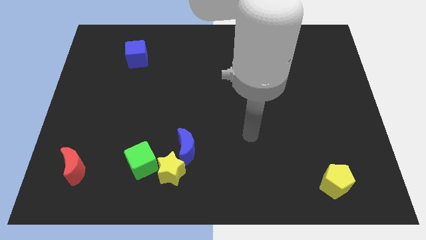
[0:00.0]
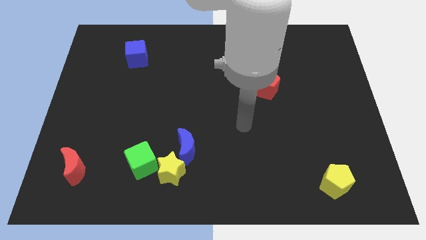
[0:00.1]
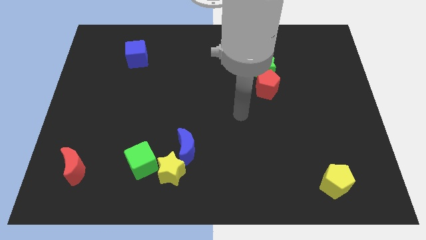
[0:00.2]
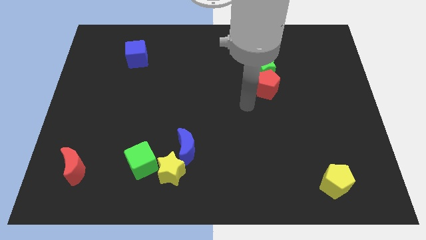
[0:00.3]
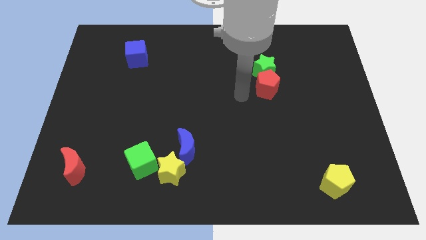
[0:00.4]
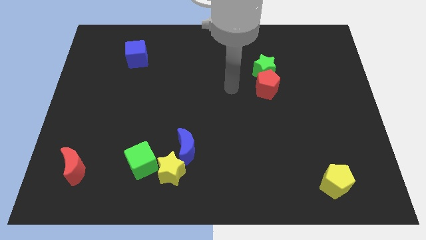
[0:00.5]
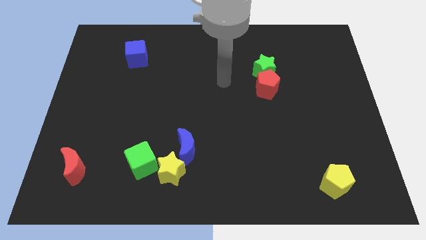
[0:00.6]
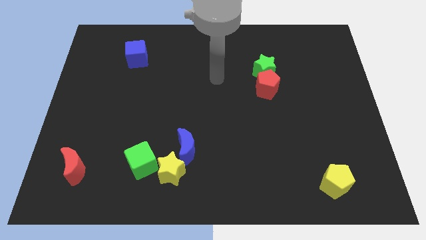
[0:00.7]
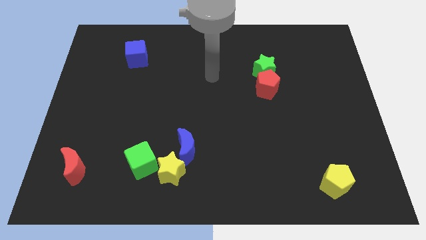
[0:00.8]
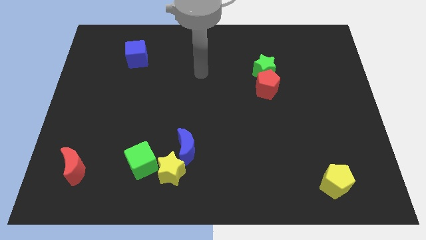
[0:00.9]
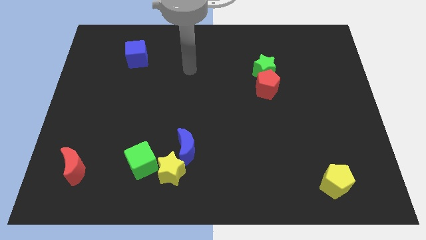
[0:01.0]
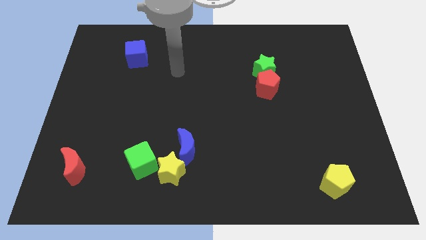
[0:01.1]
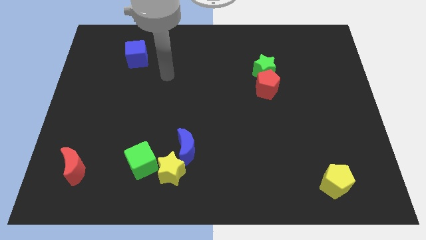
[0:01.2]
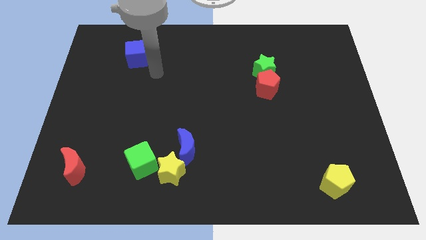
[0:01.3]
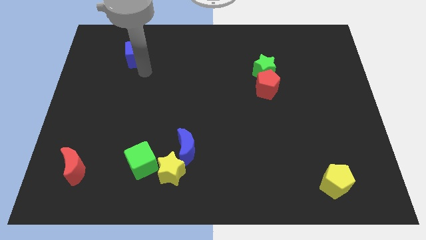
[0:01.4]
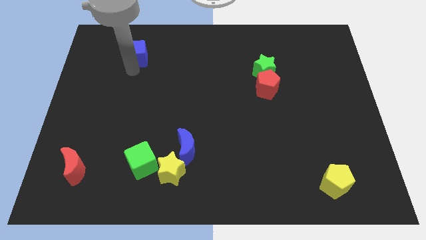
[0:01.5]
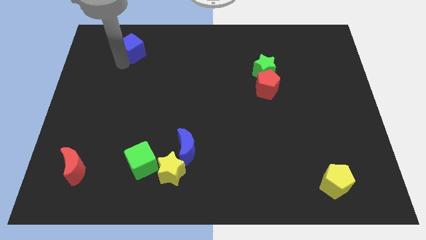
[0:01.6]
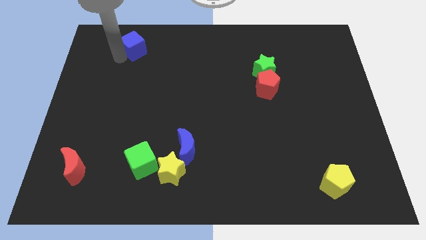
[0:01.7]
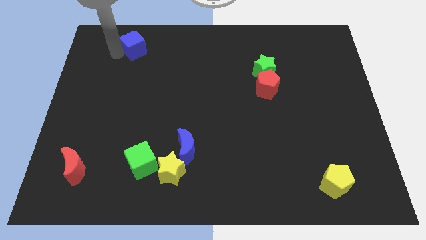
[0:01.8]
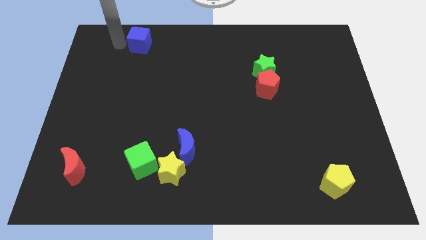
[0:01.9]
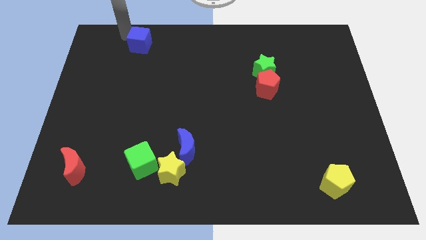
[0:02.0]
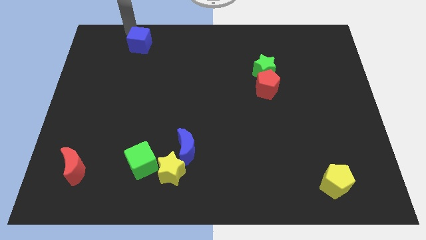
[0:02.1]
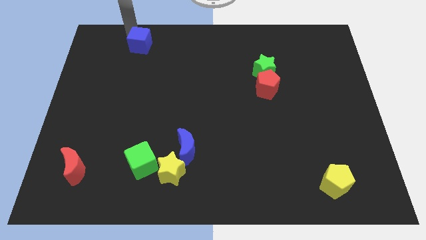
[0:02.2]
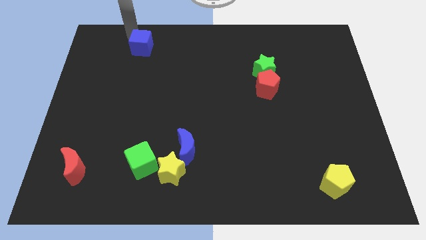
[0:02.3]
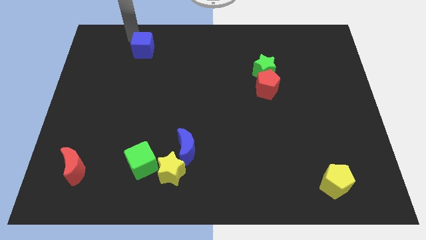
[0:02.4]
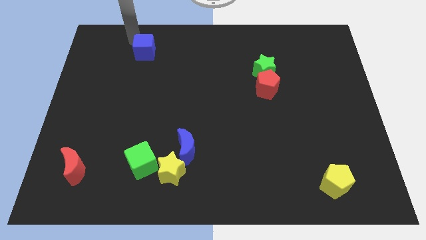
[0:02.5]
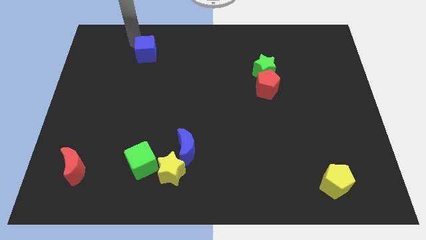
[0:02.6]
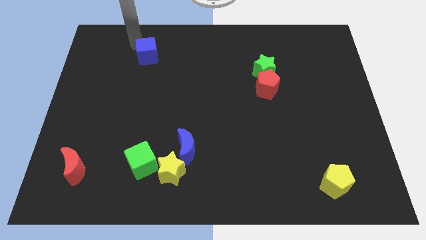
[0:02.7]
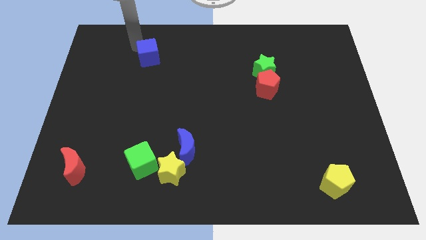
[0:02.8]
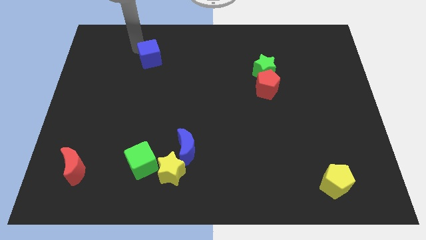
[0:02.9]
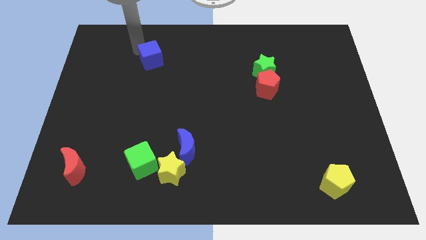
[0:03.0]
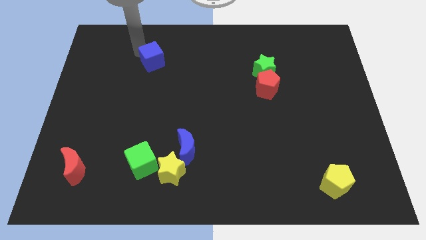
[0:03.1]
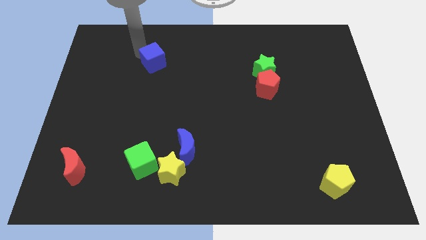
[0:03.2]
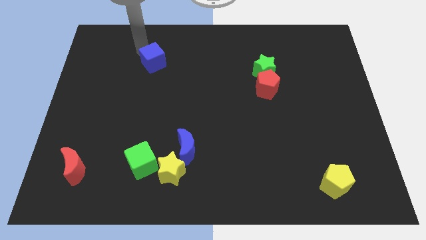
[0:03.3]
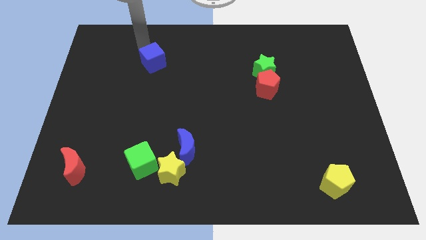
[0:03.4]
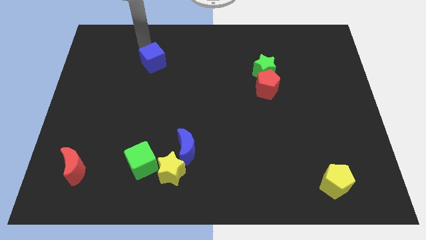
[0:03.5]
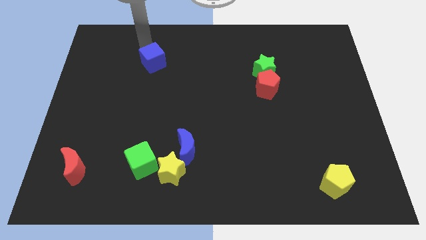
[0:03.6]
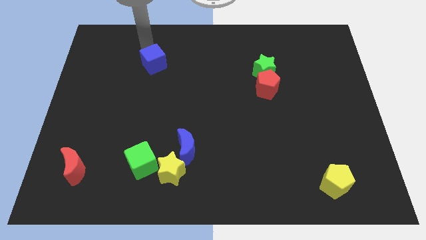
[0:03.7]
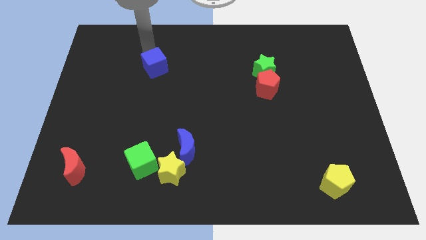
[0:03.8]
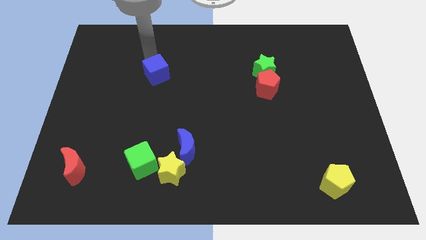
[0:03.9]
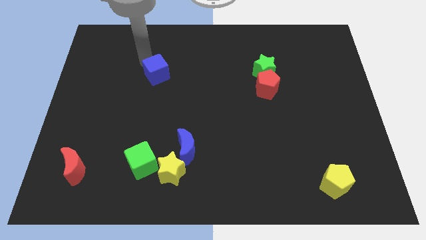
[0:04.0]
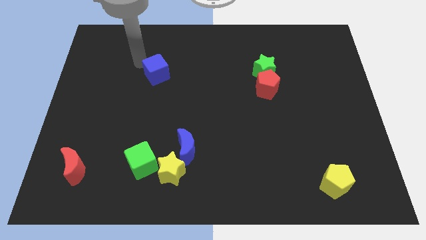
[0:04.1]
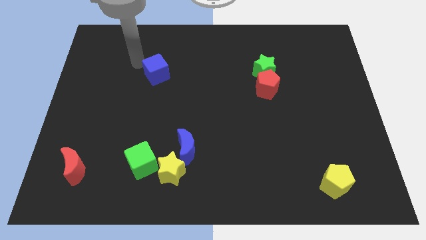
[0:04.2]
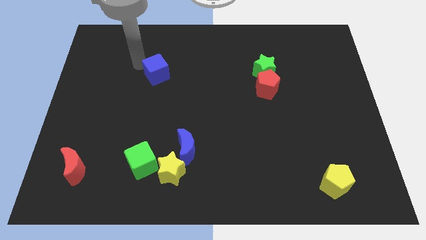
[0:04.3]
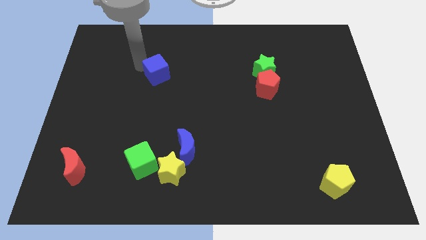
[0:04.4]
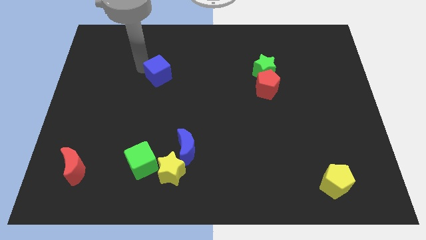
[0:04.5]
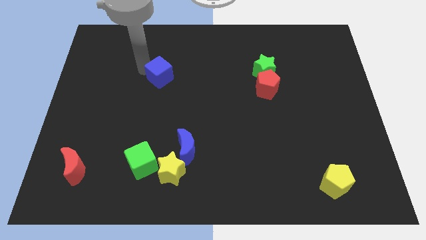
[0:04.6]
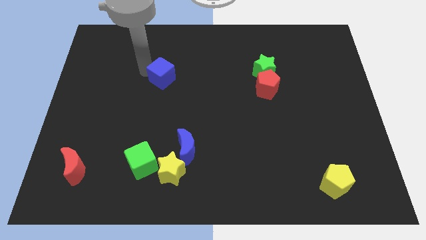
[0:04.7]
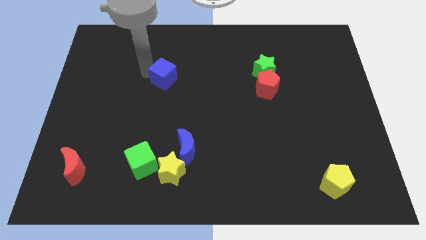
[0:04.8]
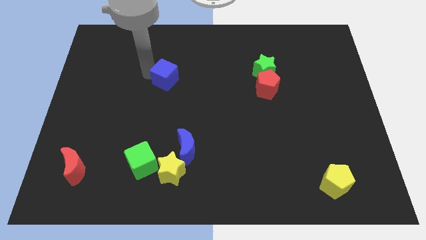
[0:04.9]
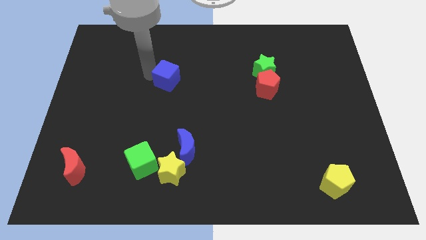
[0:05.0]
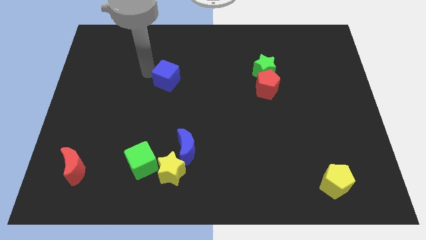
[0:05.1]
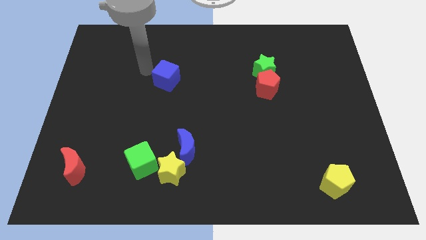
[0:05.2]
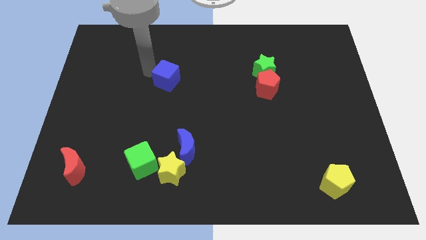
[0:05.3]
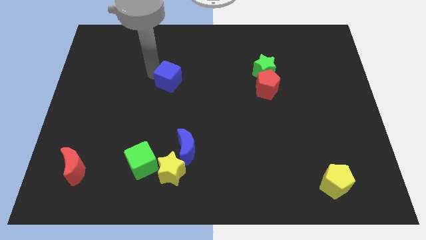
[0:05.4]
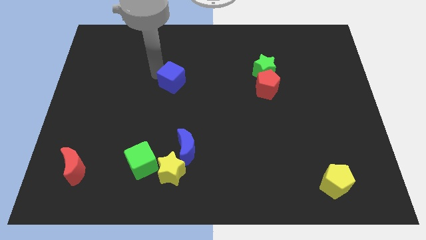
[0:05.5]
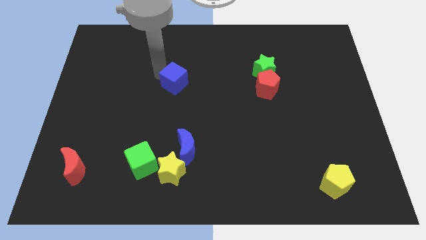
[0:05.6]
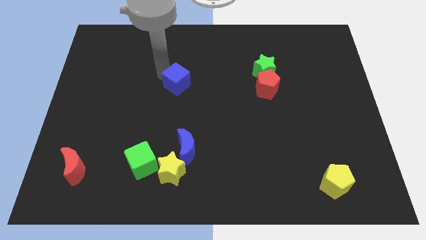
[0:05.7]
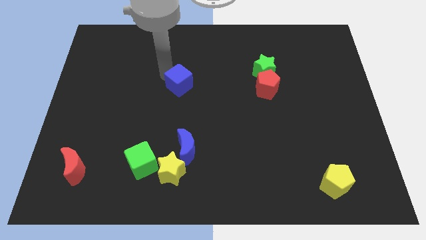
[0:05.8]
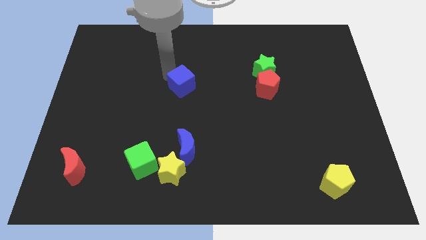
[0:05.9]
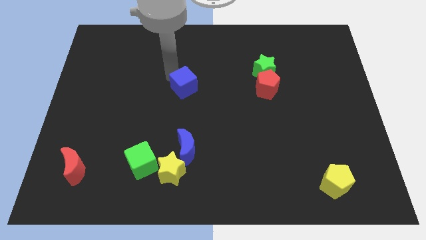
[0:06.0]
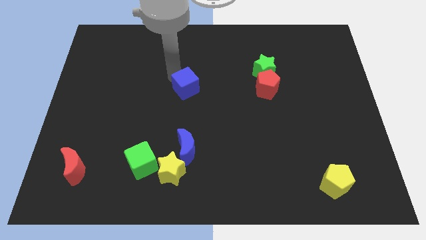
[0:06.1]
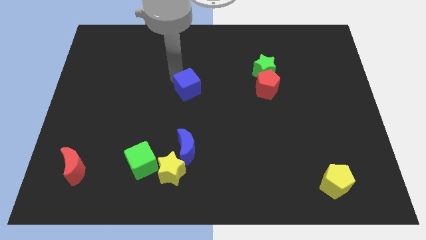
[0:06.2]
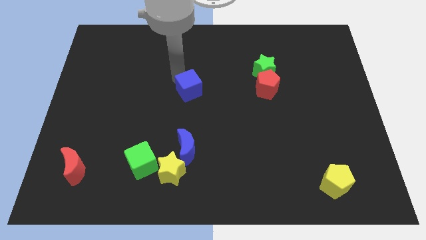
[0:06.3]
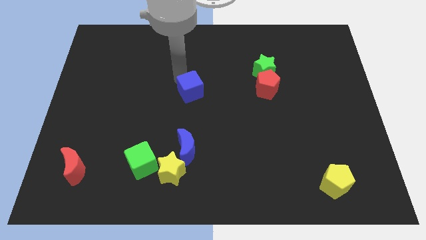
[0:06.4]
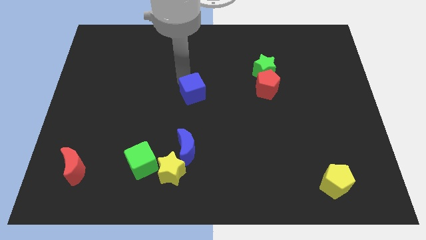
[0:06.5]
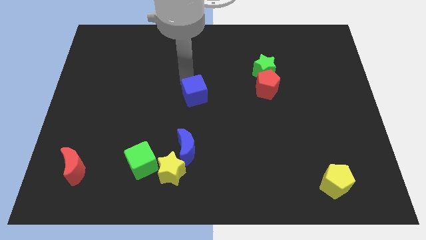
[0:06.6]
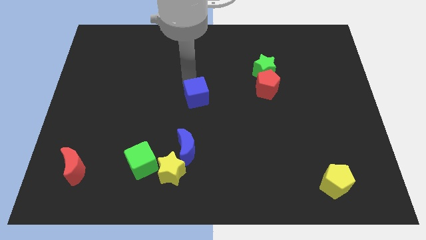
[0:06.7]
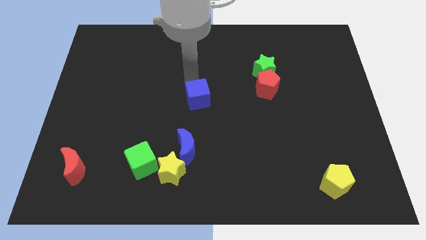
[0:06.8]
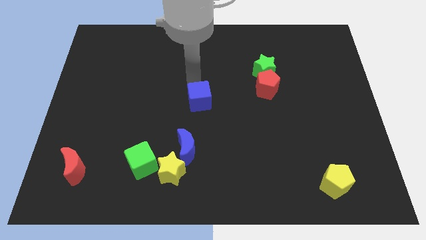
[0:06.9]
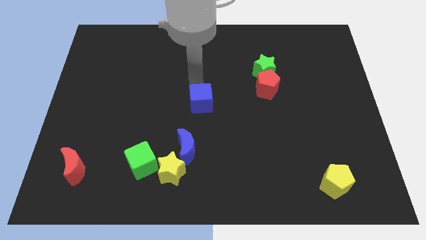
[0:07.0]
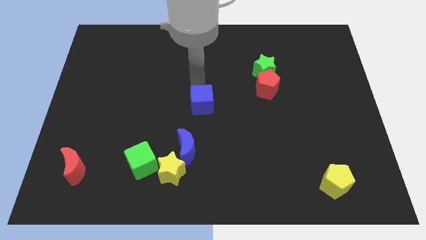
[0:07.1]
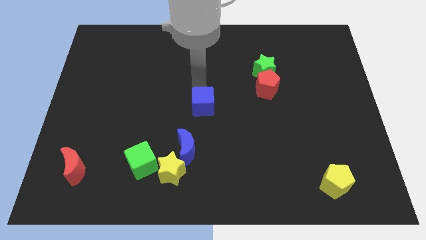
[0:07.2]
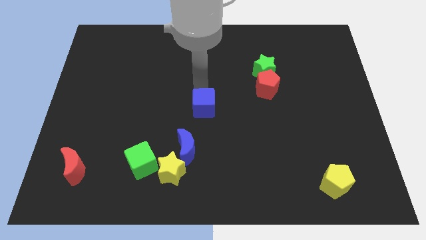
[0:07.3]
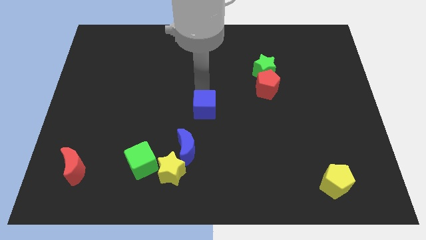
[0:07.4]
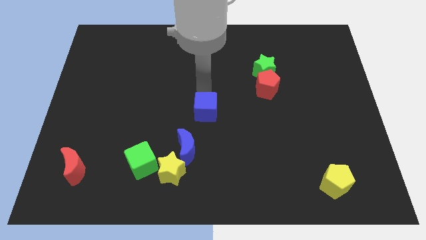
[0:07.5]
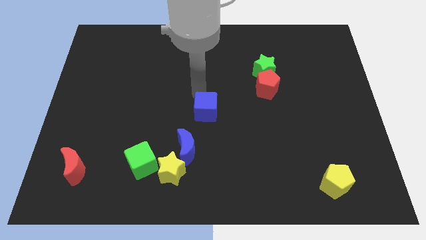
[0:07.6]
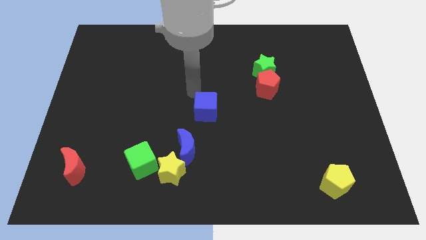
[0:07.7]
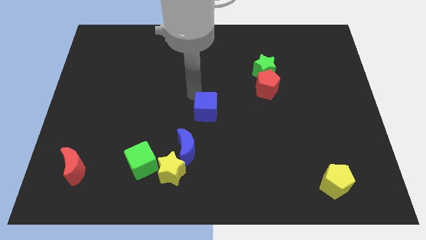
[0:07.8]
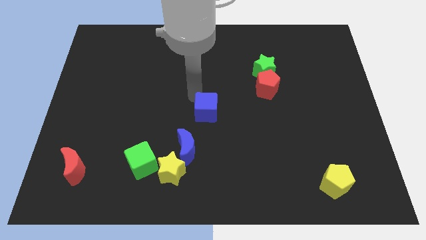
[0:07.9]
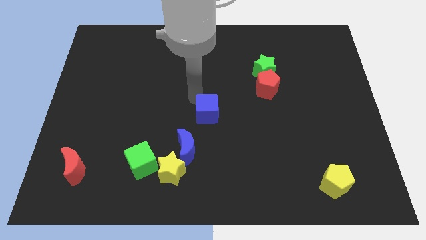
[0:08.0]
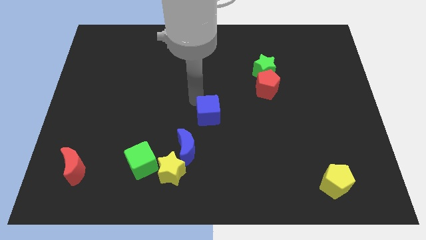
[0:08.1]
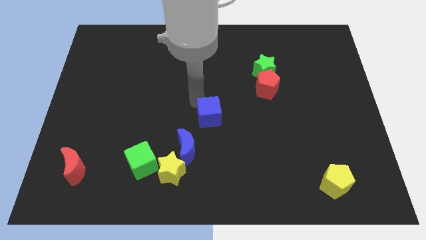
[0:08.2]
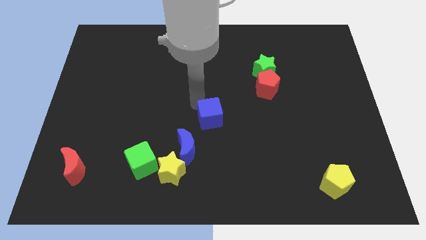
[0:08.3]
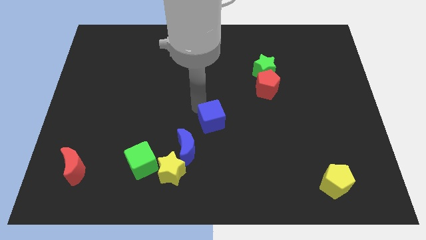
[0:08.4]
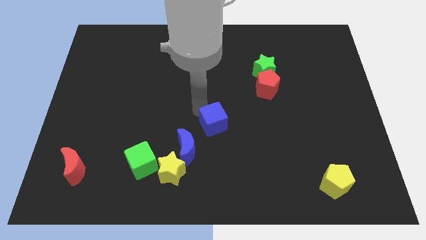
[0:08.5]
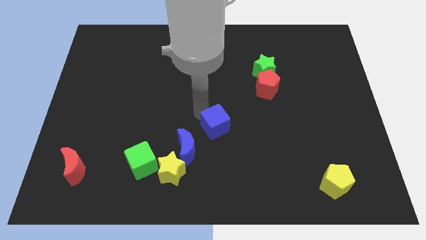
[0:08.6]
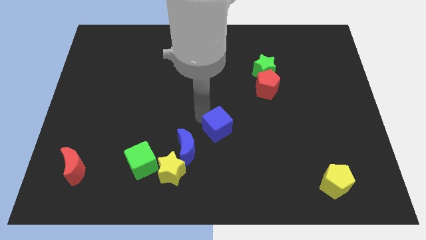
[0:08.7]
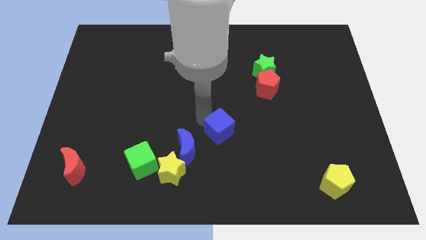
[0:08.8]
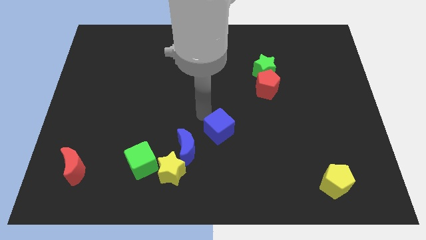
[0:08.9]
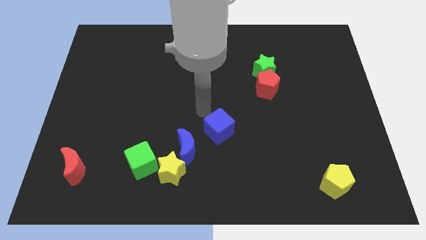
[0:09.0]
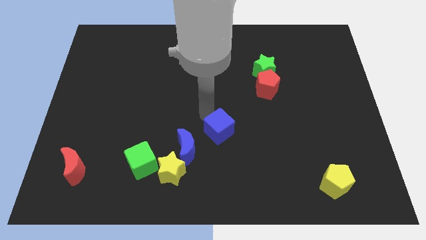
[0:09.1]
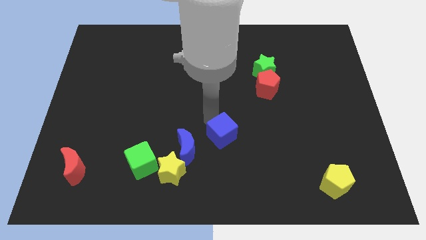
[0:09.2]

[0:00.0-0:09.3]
slide the blue cube to the right of the blue moon
